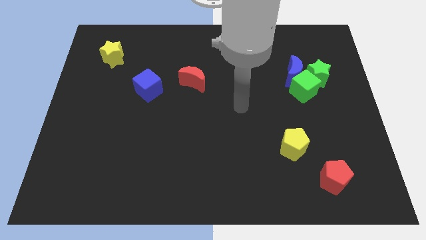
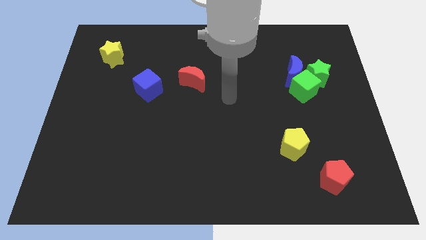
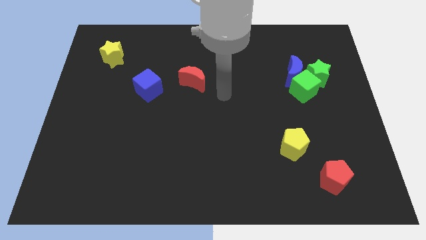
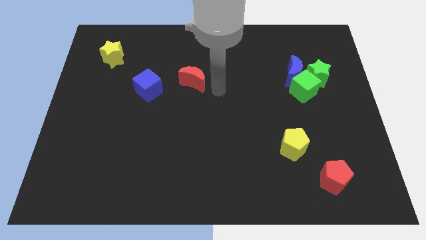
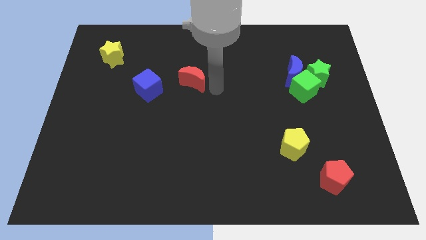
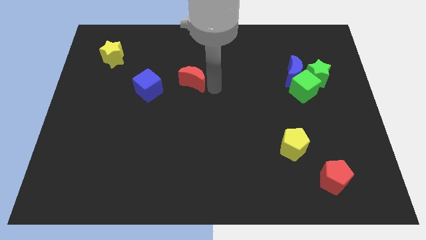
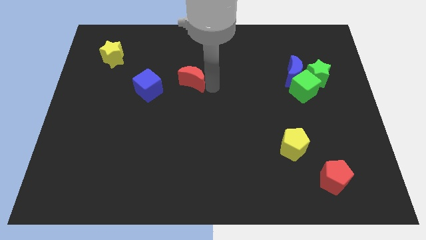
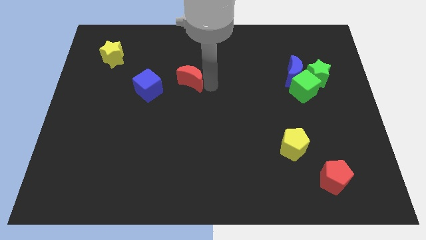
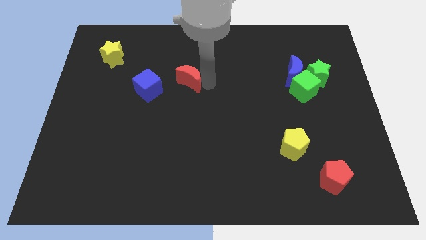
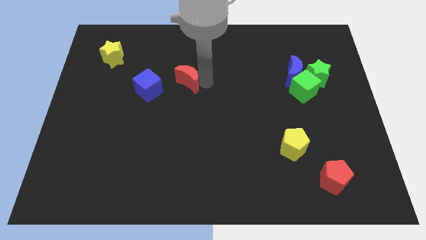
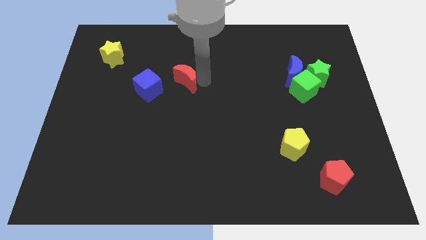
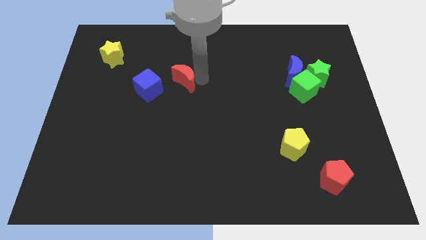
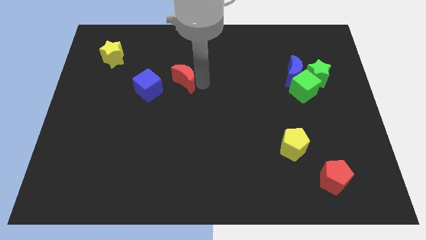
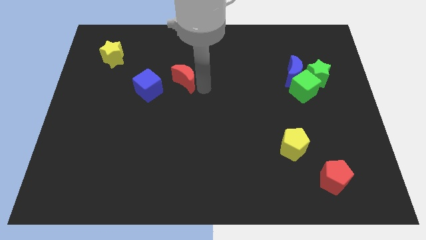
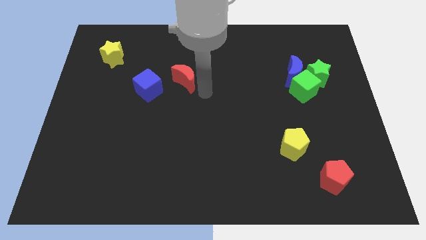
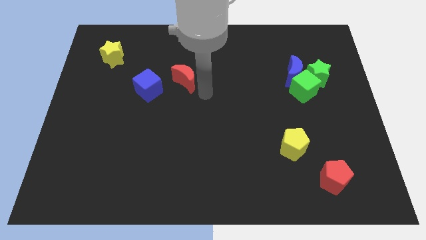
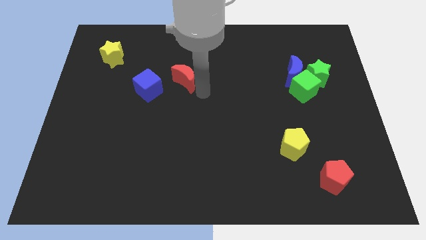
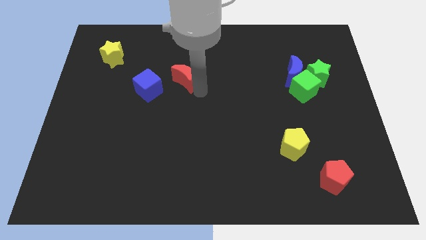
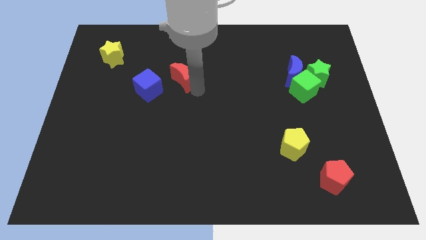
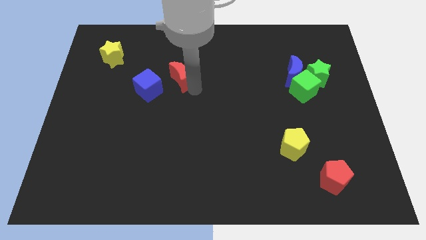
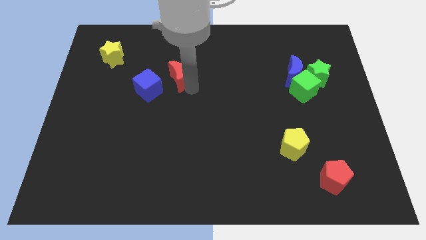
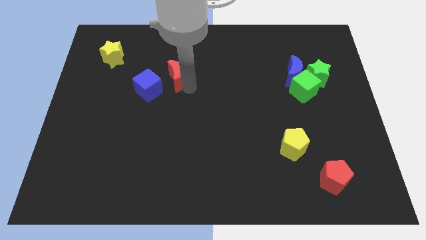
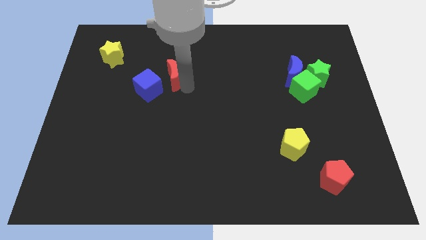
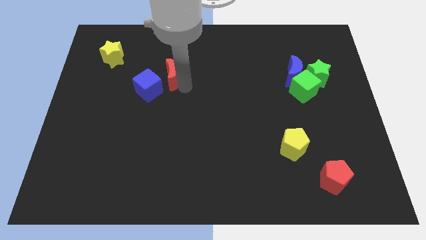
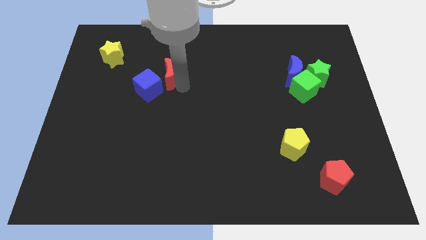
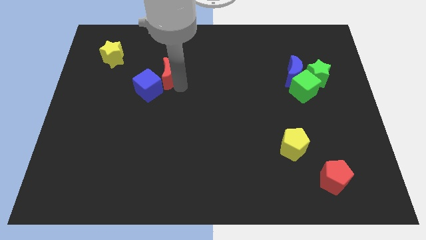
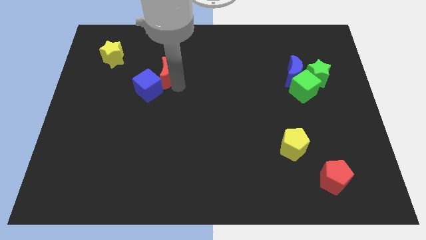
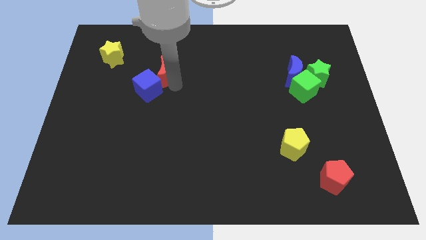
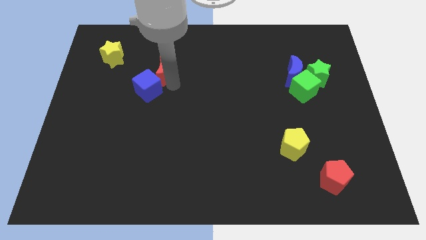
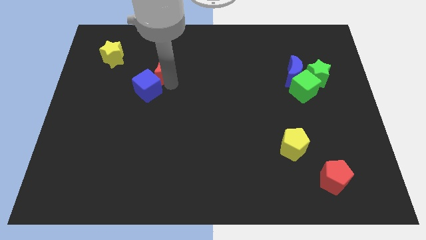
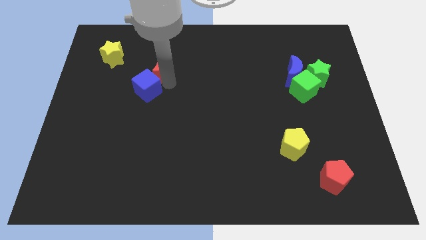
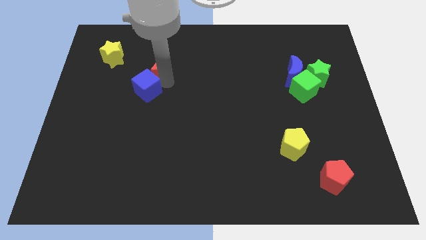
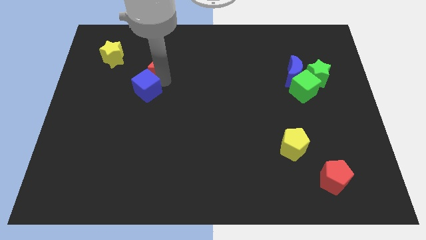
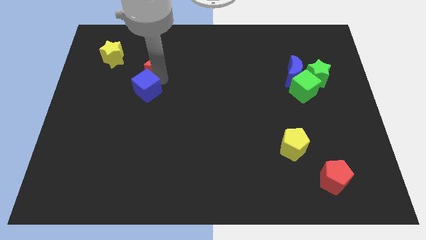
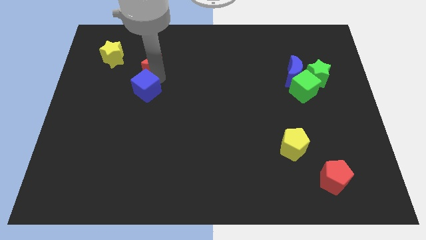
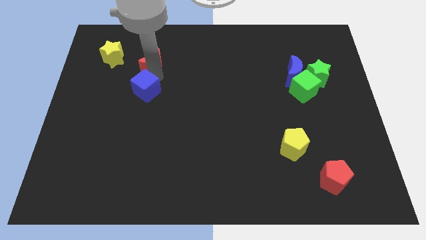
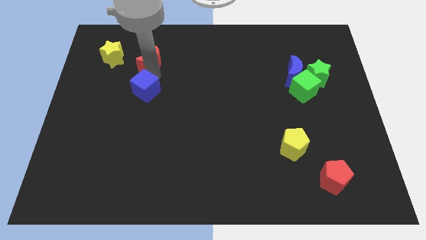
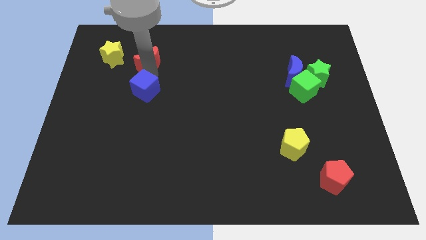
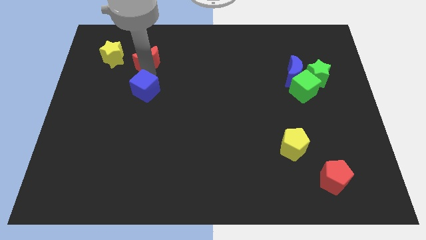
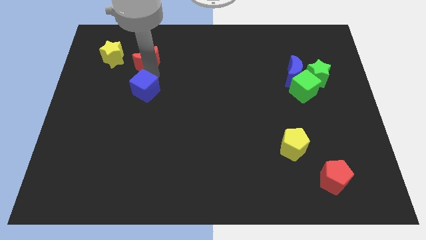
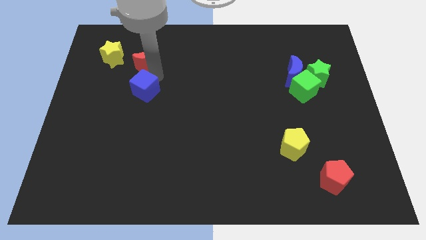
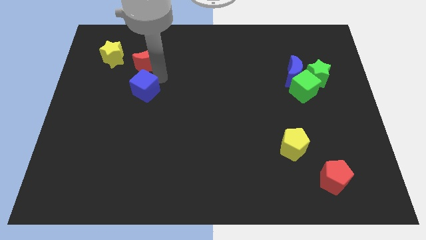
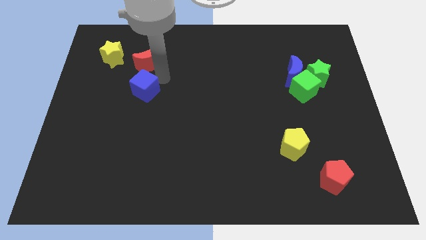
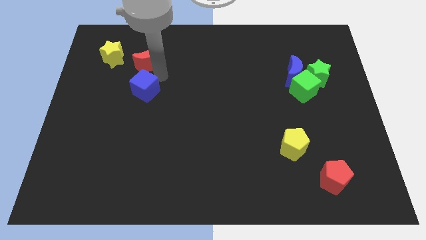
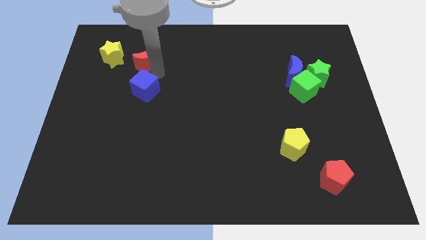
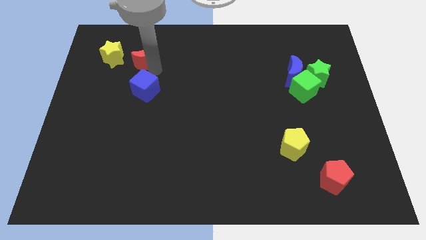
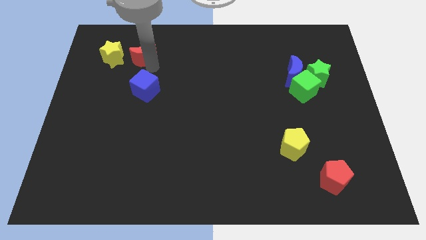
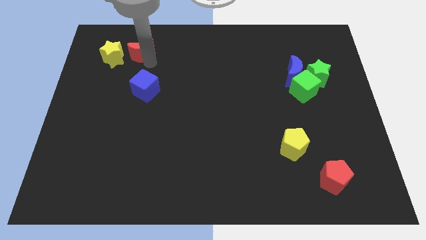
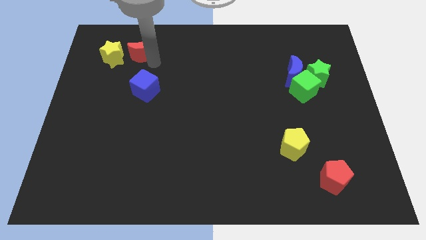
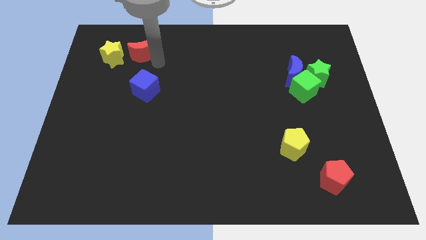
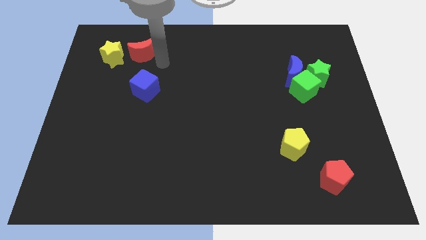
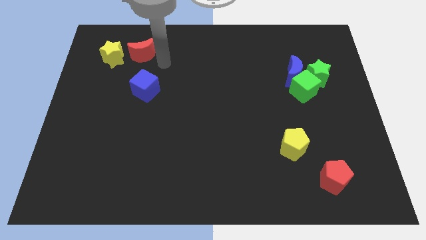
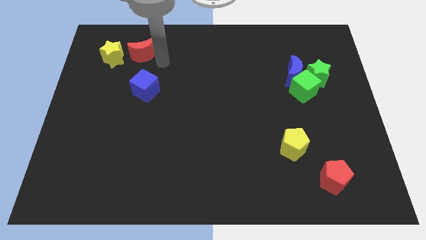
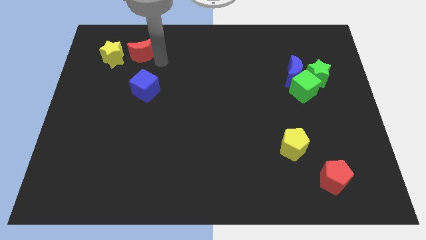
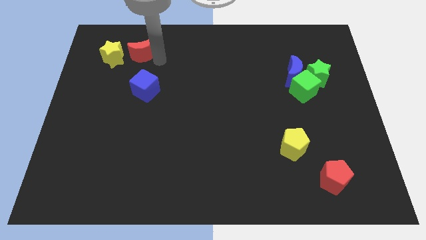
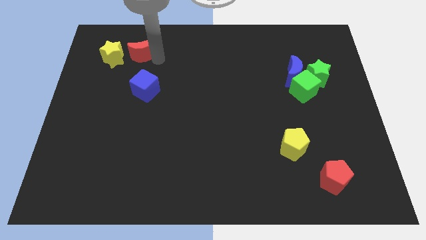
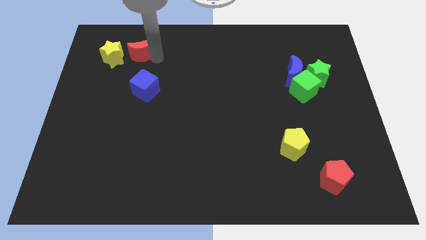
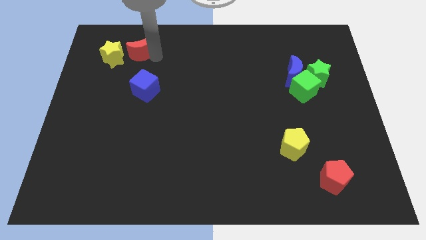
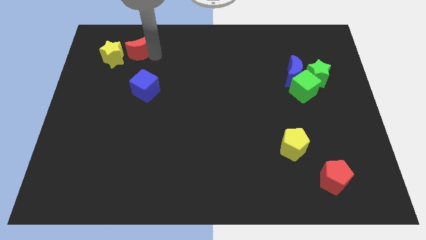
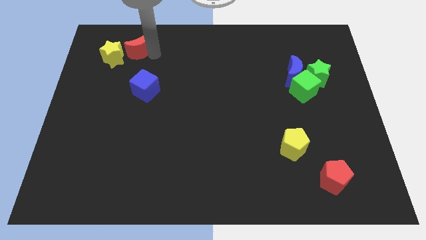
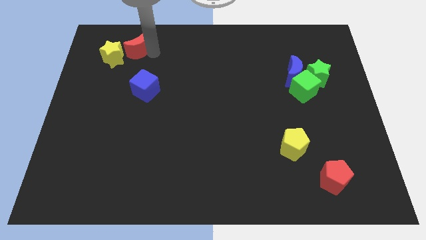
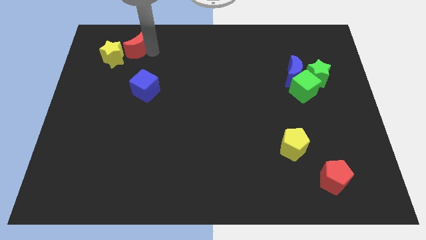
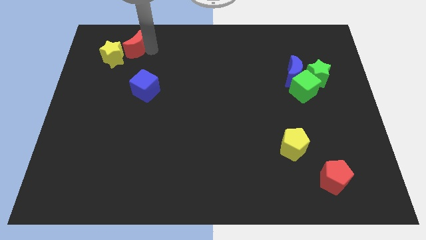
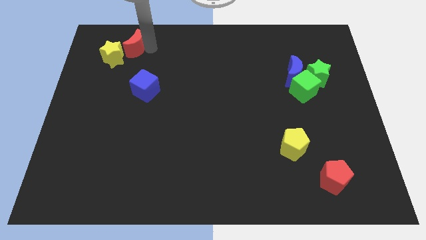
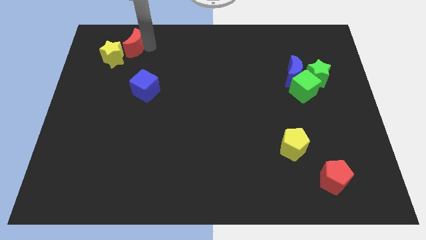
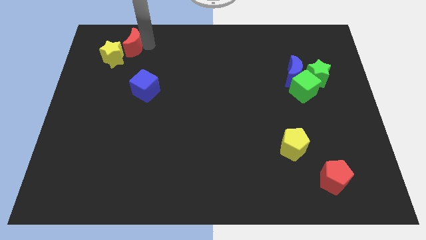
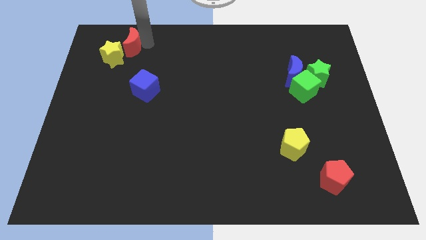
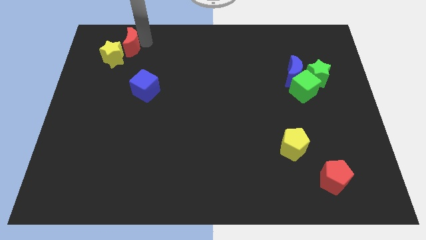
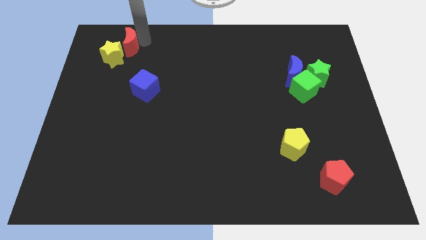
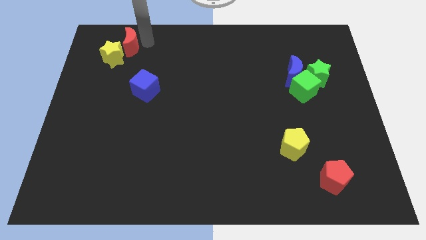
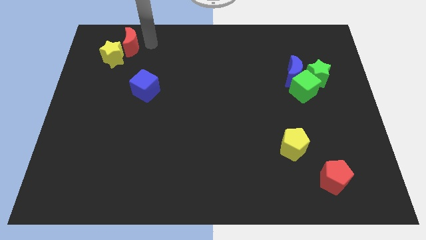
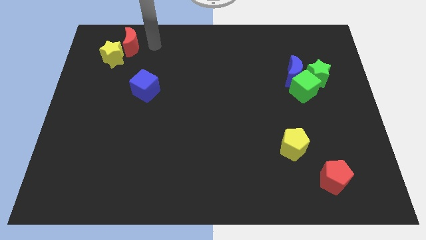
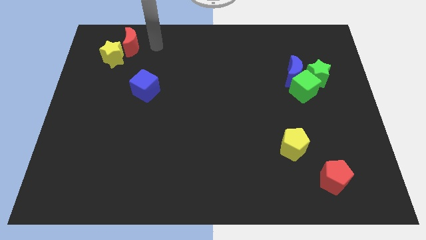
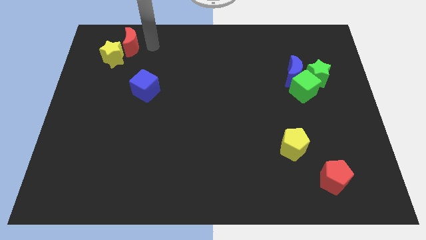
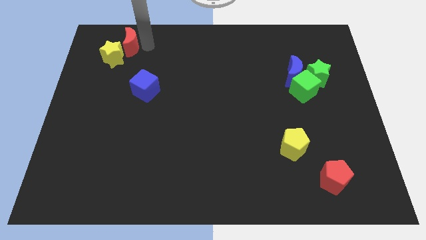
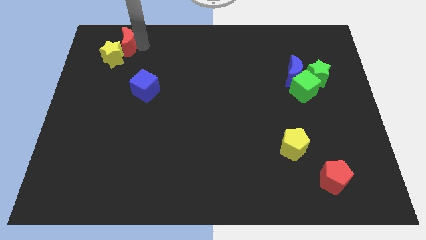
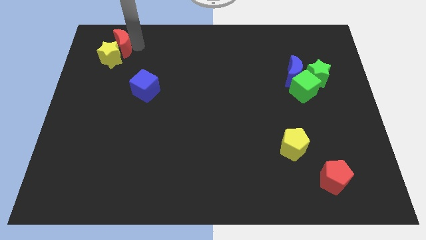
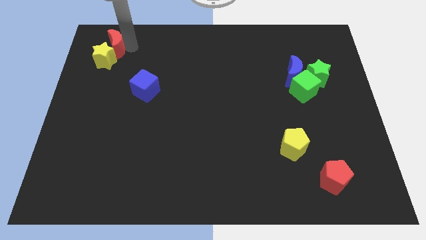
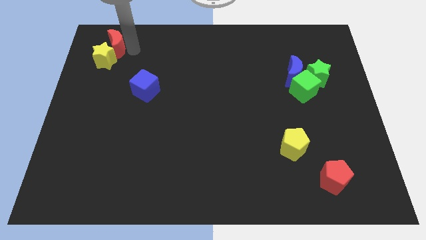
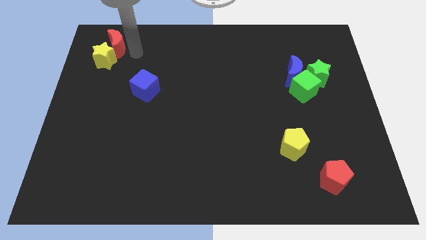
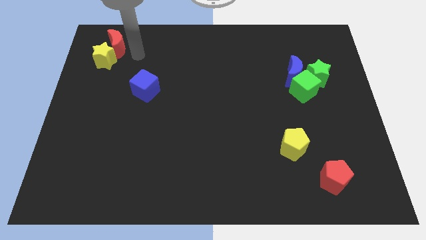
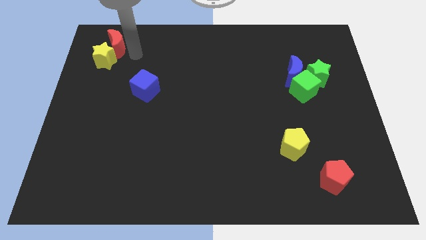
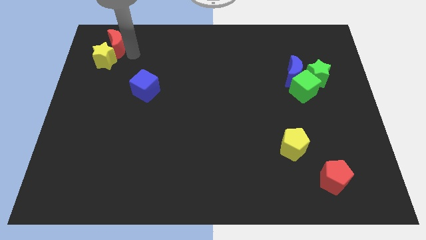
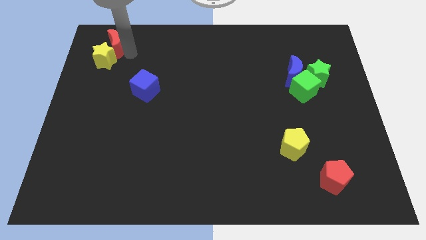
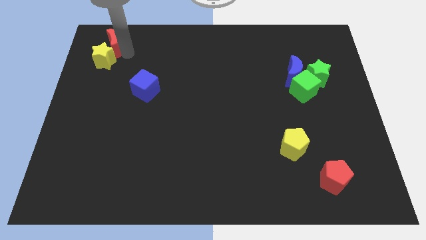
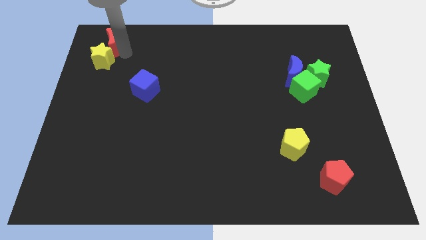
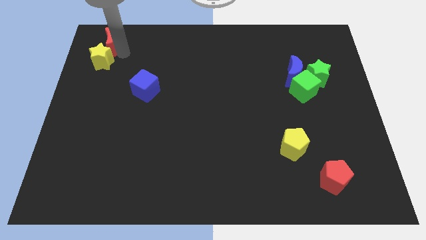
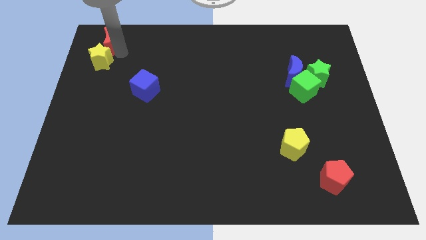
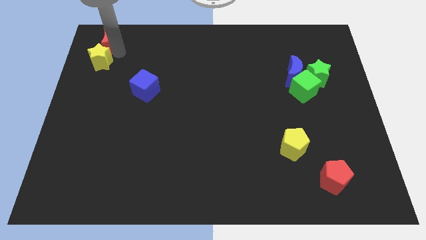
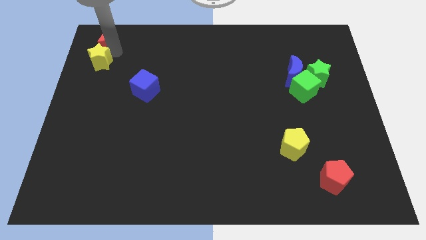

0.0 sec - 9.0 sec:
move the red moon to the top left
